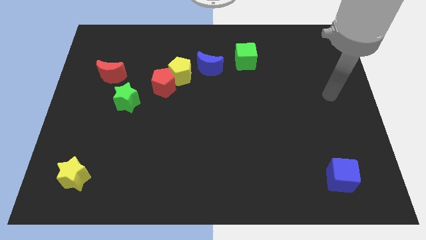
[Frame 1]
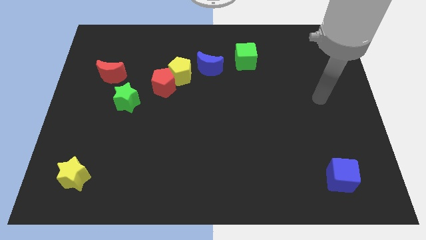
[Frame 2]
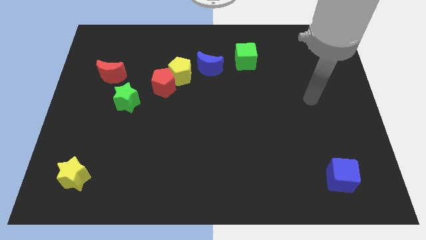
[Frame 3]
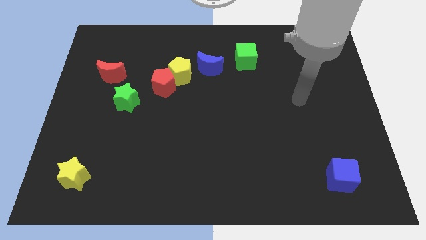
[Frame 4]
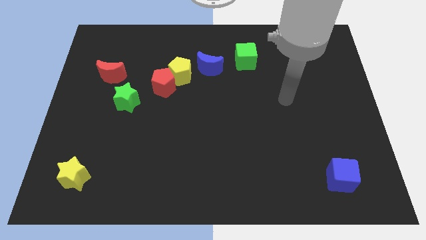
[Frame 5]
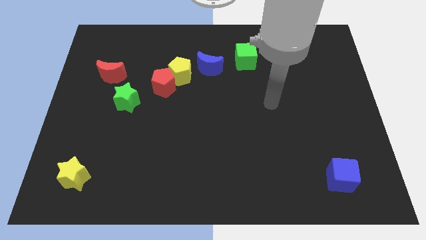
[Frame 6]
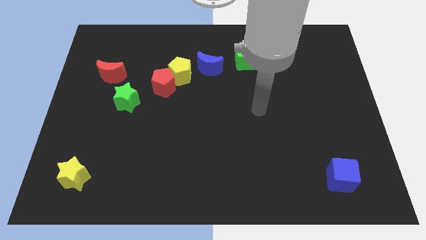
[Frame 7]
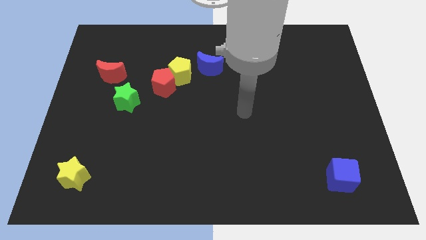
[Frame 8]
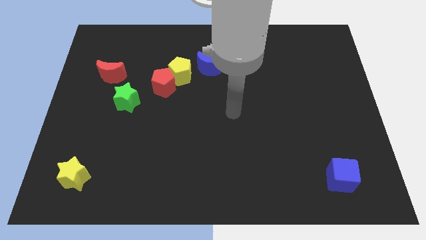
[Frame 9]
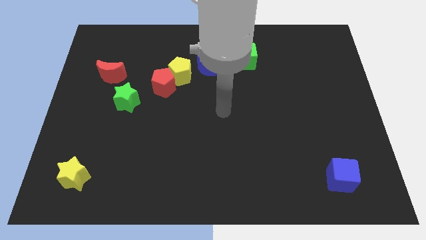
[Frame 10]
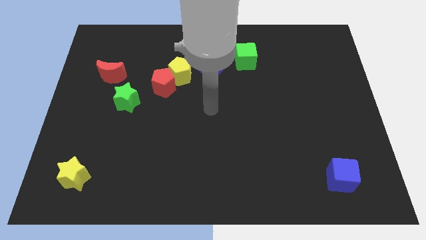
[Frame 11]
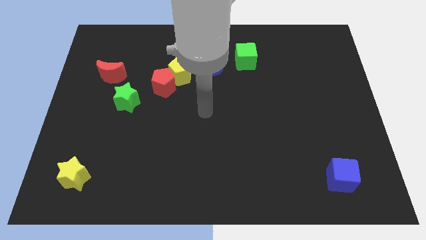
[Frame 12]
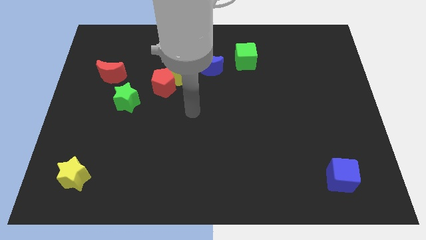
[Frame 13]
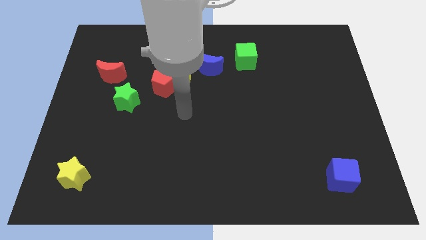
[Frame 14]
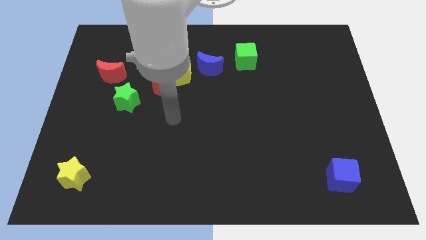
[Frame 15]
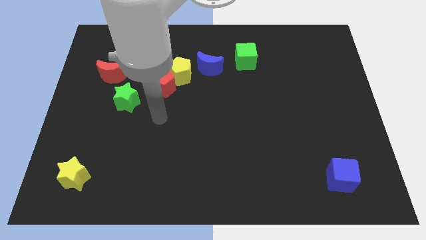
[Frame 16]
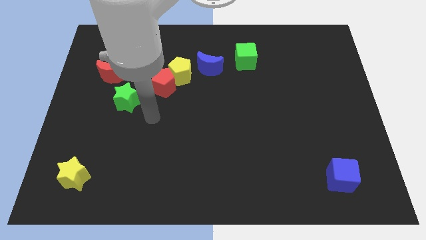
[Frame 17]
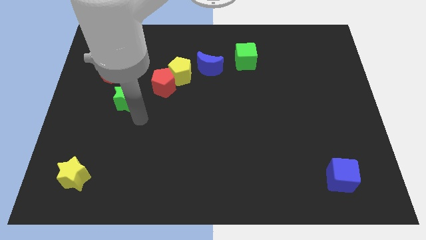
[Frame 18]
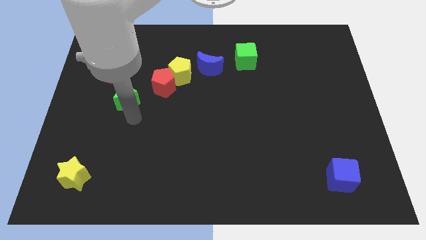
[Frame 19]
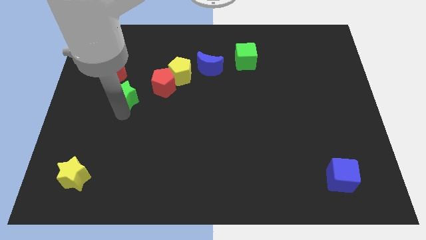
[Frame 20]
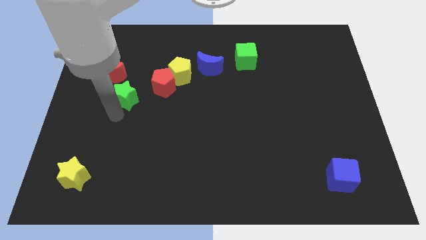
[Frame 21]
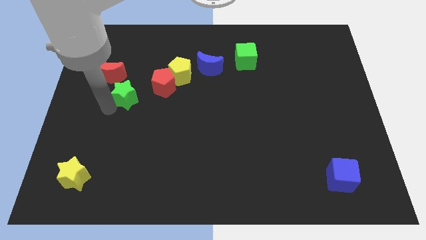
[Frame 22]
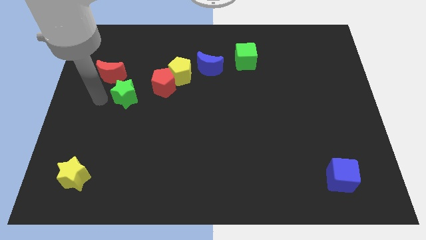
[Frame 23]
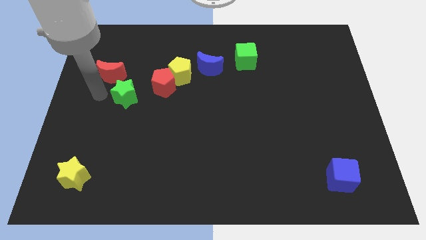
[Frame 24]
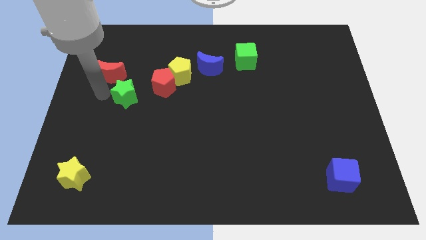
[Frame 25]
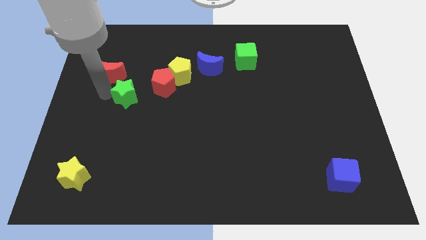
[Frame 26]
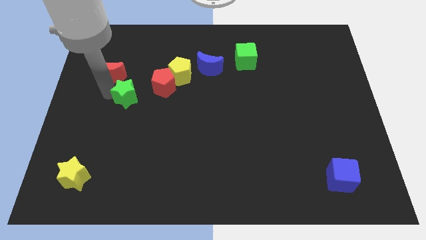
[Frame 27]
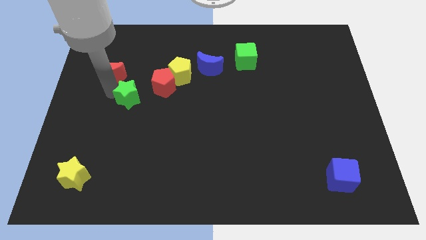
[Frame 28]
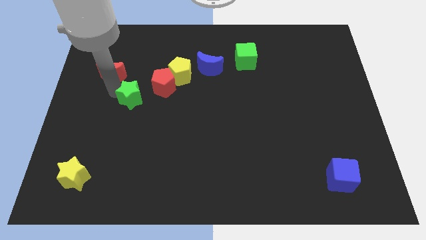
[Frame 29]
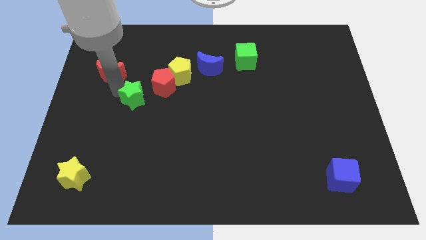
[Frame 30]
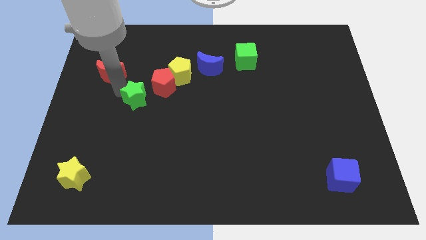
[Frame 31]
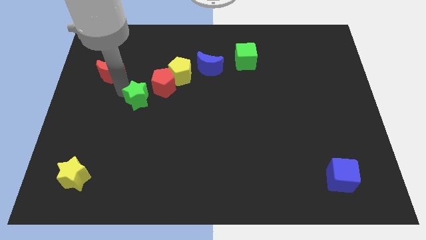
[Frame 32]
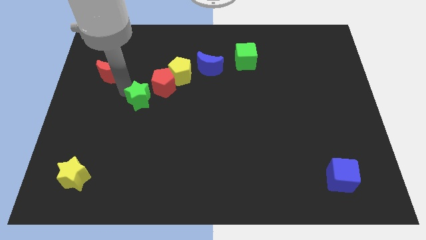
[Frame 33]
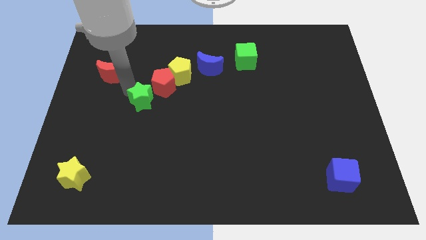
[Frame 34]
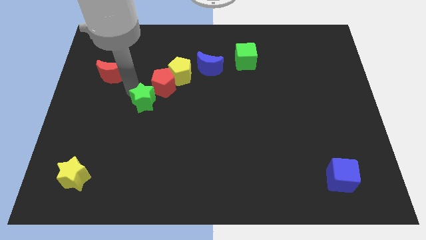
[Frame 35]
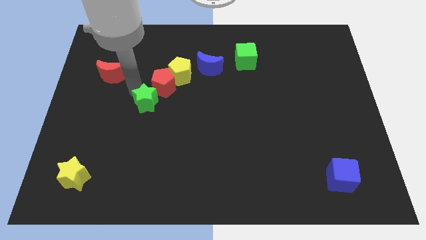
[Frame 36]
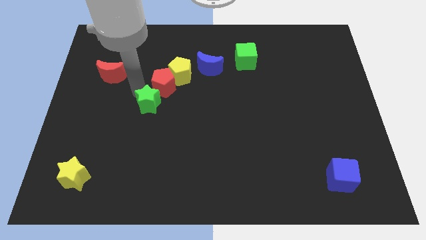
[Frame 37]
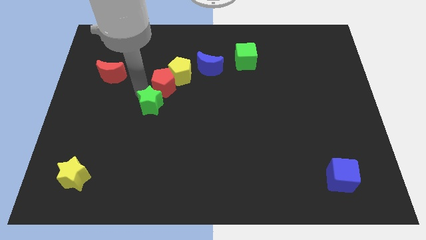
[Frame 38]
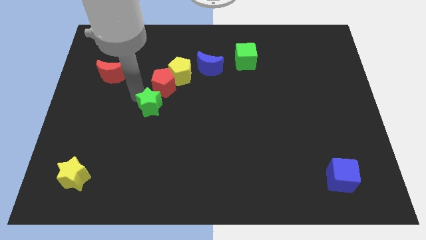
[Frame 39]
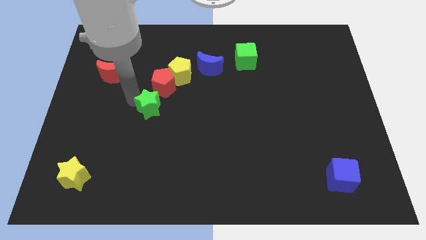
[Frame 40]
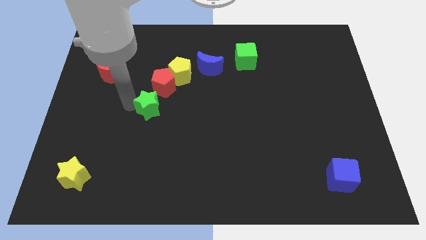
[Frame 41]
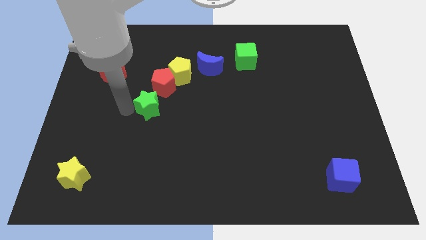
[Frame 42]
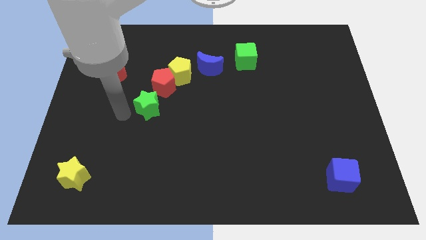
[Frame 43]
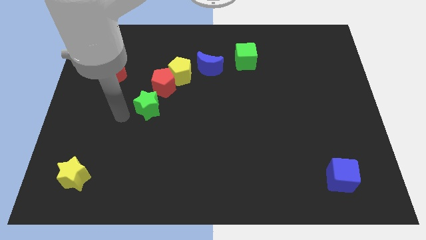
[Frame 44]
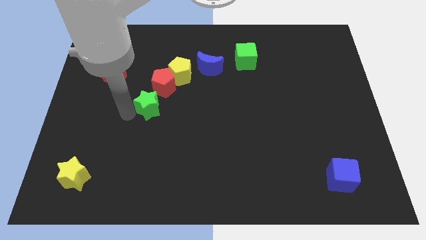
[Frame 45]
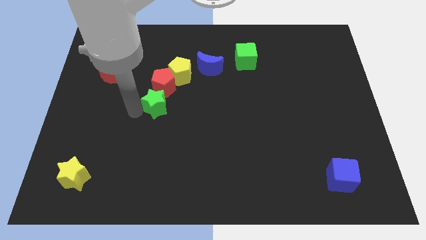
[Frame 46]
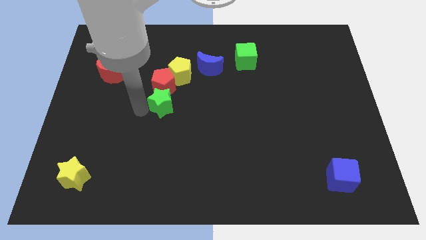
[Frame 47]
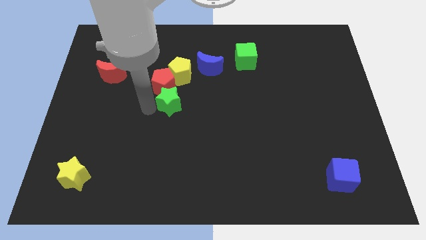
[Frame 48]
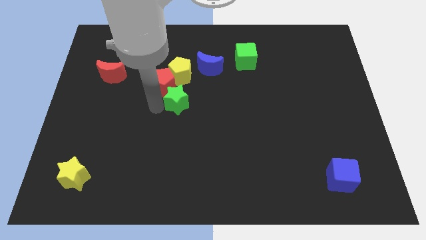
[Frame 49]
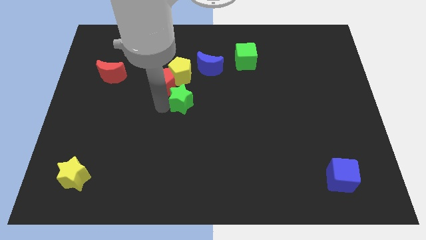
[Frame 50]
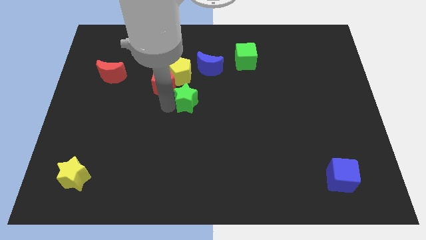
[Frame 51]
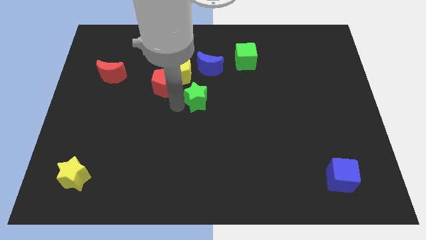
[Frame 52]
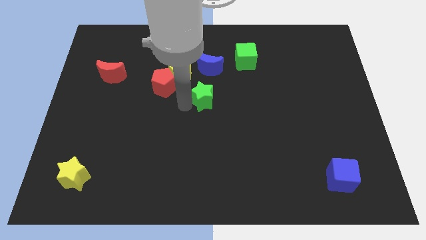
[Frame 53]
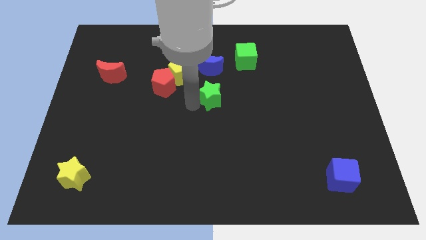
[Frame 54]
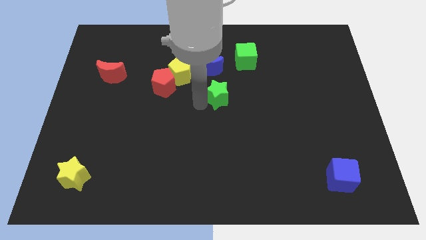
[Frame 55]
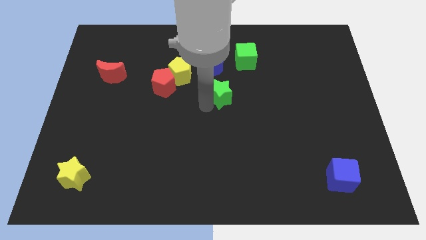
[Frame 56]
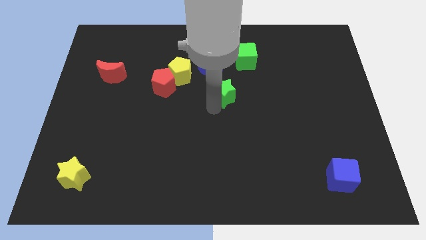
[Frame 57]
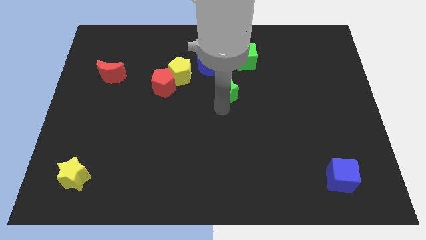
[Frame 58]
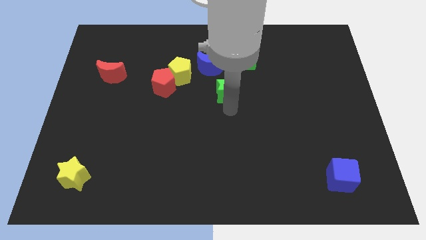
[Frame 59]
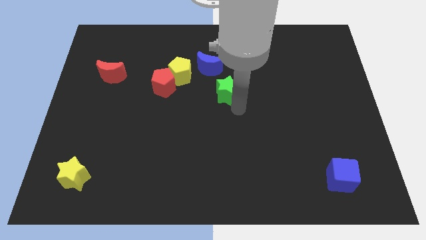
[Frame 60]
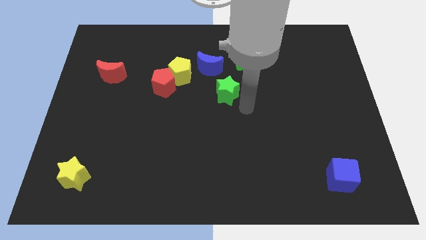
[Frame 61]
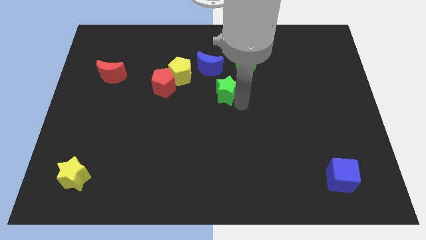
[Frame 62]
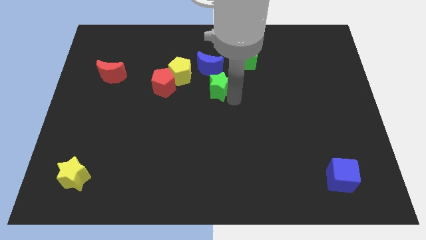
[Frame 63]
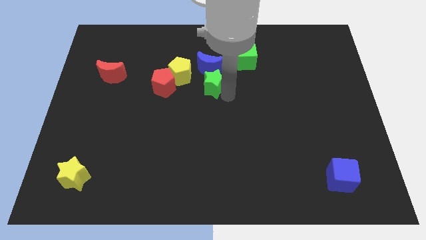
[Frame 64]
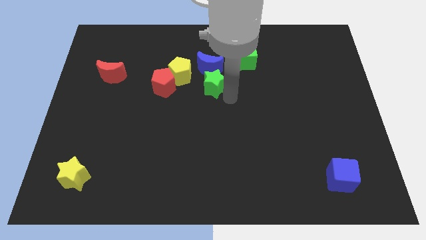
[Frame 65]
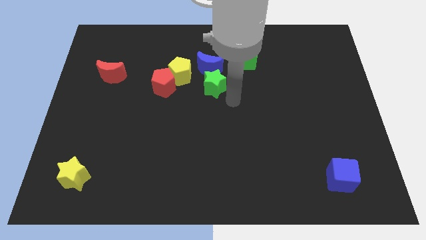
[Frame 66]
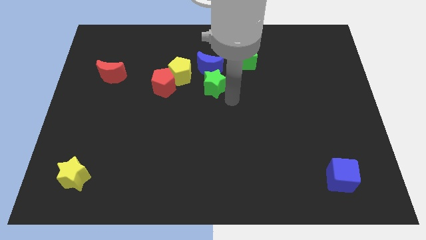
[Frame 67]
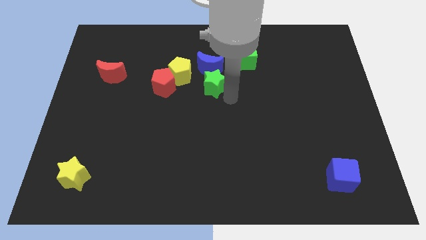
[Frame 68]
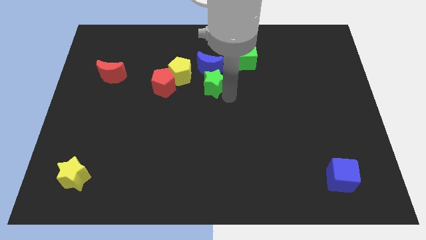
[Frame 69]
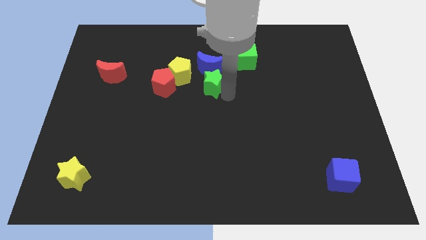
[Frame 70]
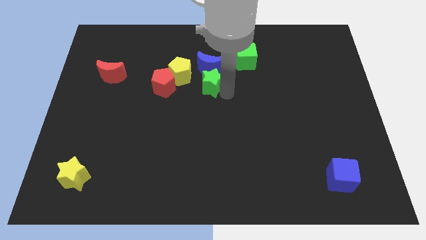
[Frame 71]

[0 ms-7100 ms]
slide the green star to the blue moon

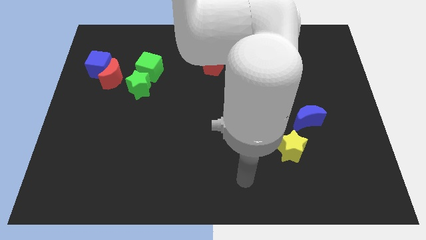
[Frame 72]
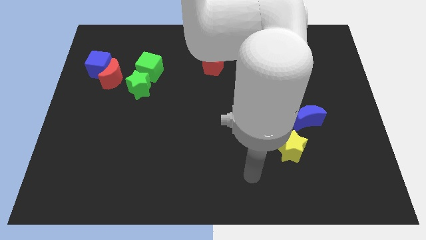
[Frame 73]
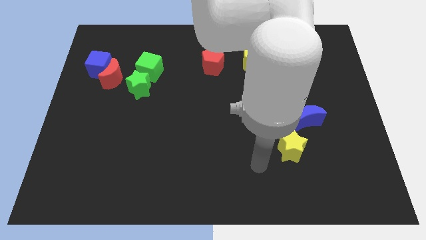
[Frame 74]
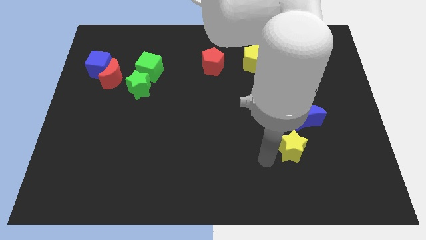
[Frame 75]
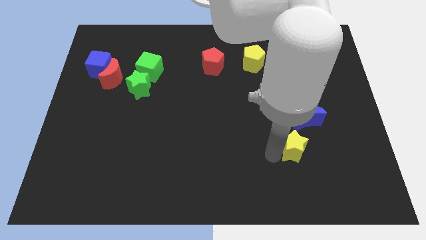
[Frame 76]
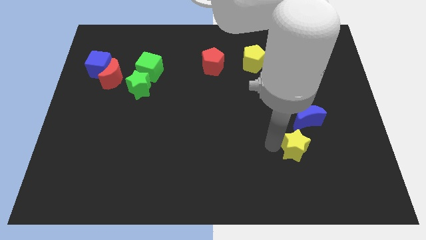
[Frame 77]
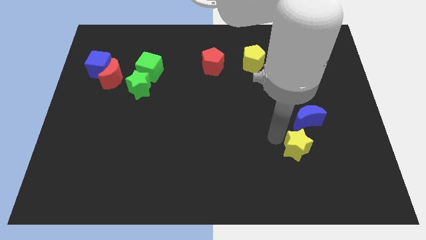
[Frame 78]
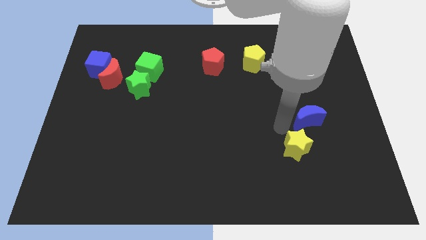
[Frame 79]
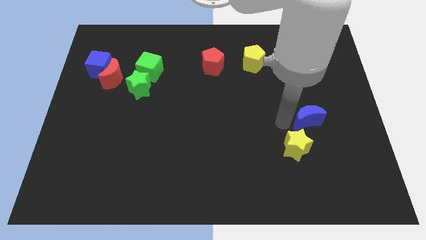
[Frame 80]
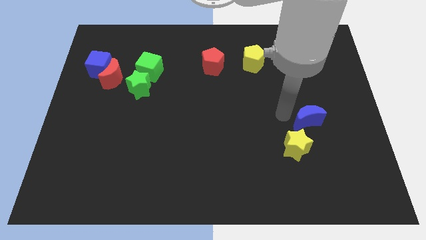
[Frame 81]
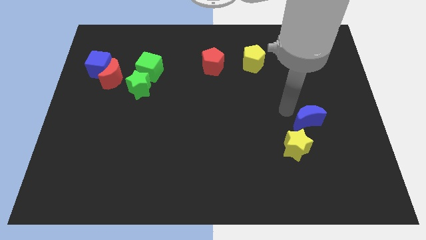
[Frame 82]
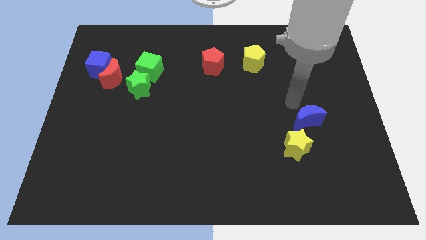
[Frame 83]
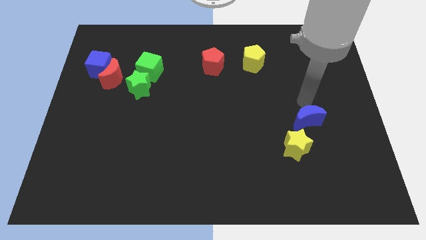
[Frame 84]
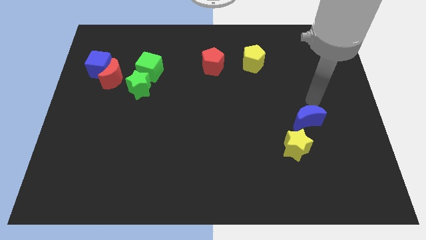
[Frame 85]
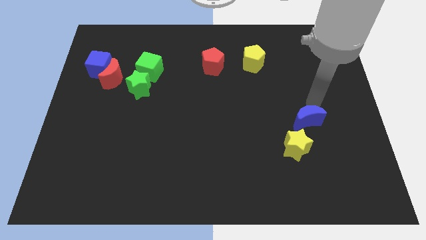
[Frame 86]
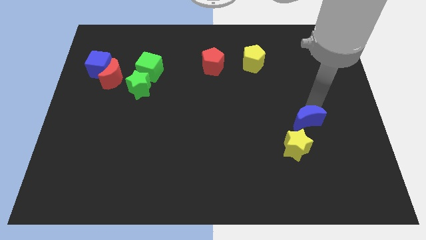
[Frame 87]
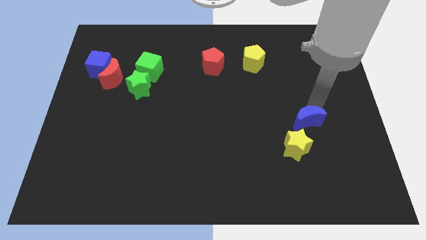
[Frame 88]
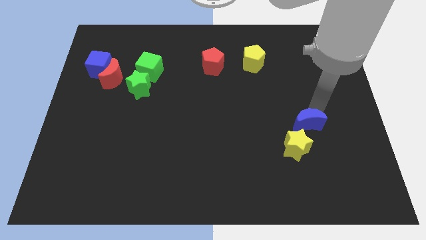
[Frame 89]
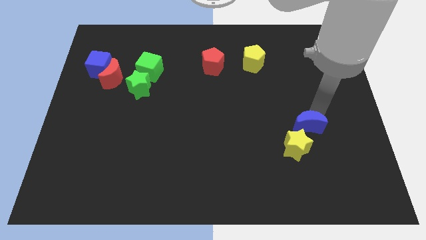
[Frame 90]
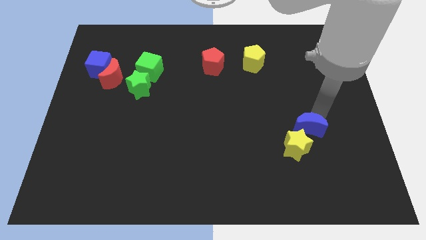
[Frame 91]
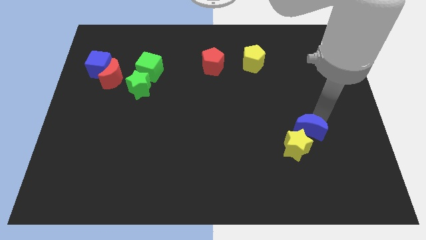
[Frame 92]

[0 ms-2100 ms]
slide the blue moon close to the yellow star
